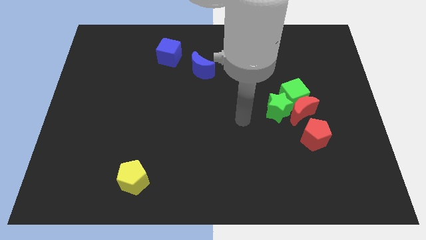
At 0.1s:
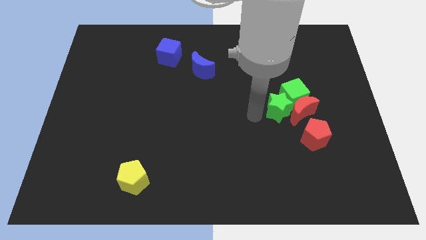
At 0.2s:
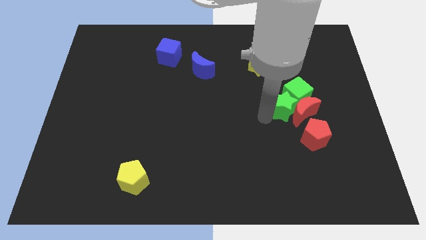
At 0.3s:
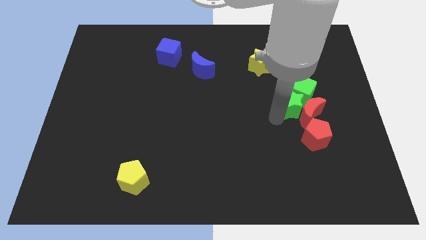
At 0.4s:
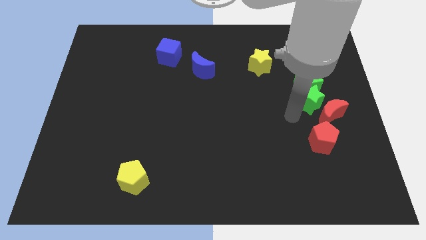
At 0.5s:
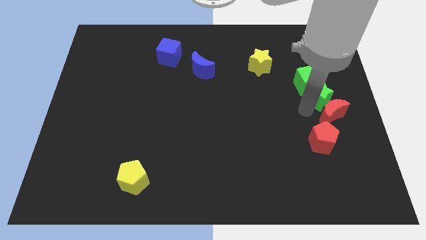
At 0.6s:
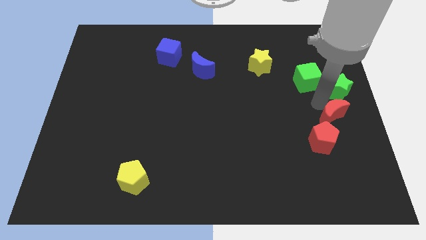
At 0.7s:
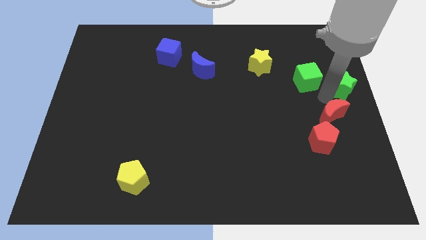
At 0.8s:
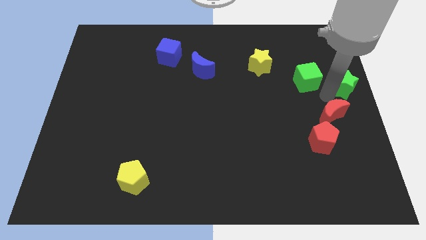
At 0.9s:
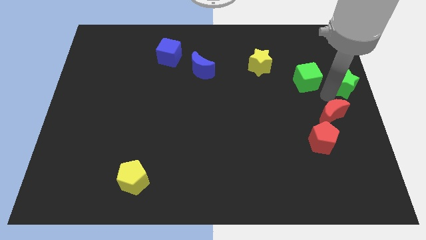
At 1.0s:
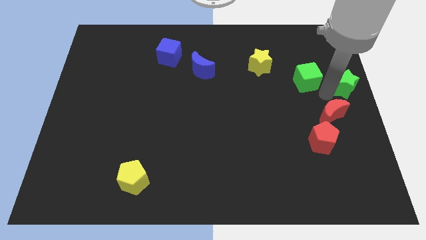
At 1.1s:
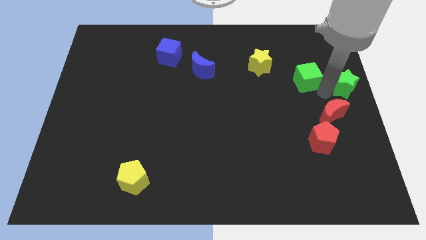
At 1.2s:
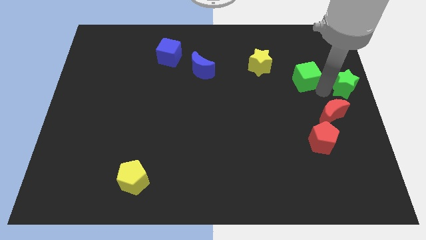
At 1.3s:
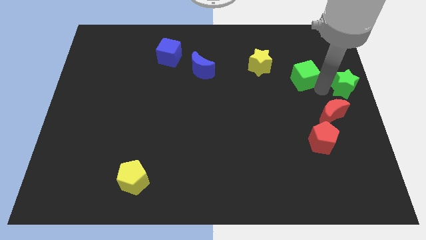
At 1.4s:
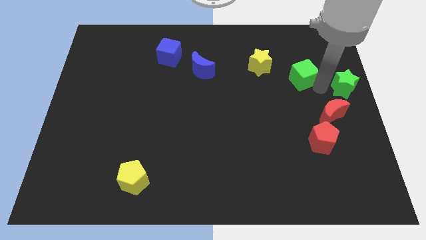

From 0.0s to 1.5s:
move the green cube away from the red moon and green star

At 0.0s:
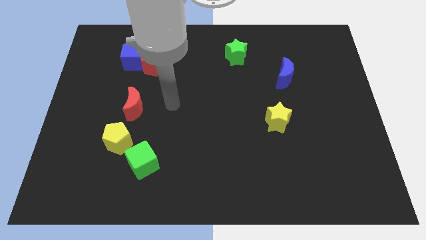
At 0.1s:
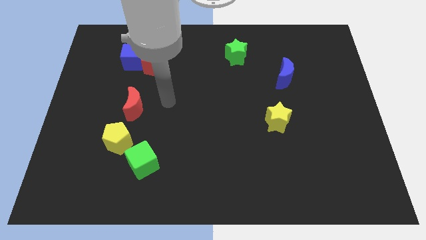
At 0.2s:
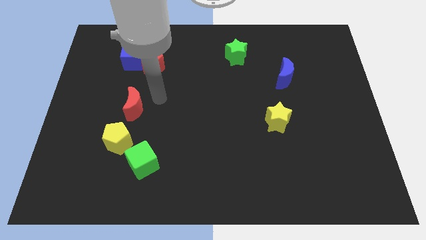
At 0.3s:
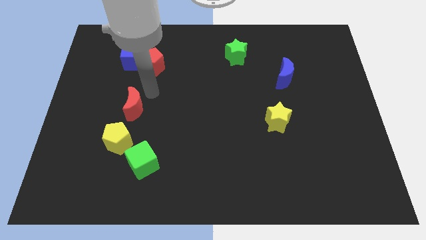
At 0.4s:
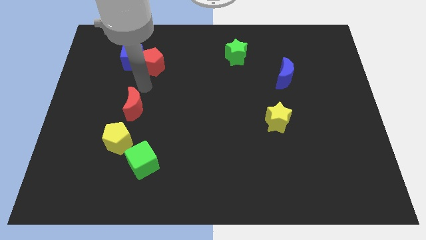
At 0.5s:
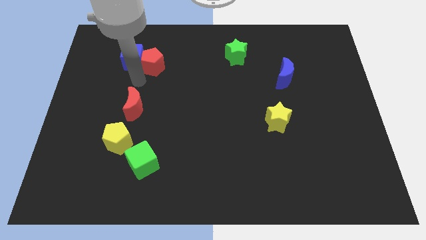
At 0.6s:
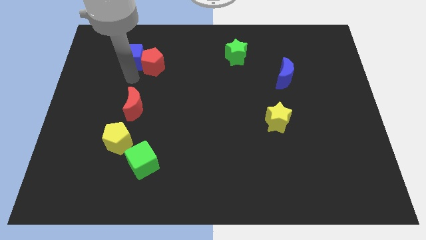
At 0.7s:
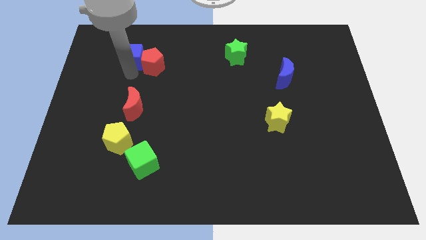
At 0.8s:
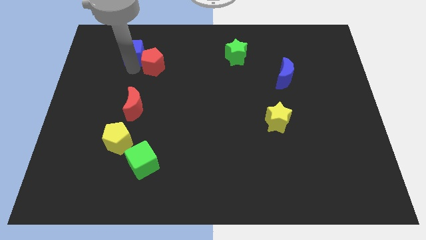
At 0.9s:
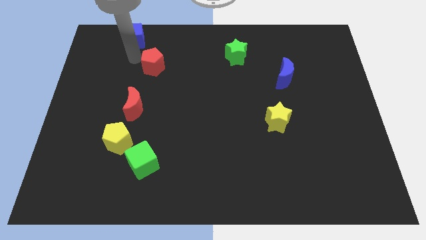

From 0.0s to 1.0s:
pull the red pentagon apart from the blue cube

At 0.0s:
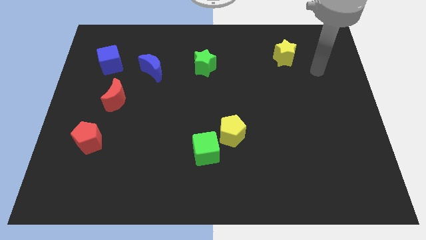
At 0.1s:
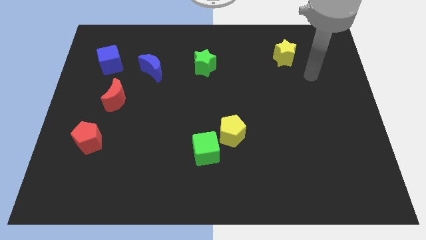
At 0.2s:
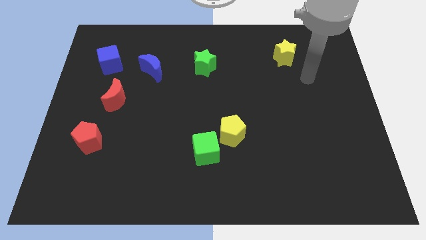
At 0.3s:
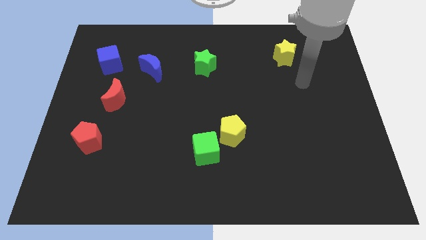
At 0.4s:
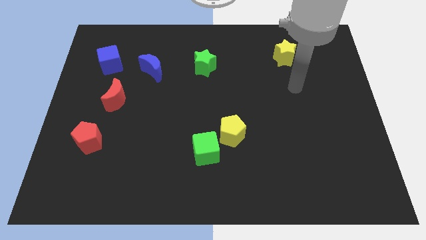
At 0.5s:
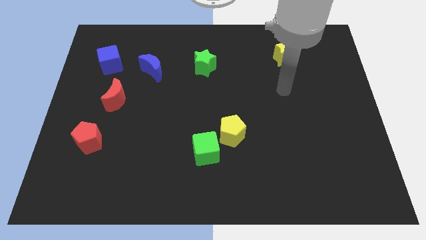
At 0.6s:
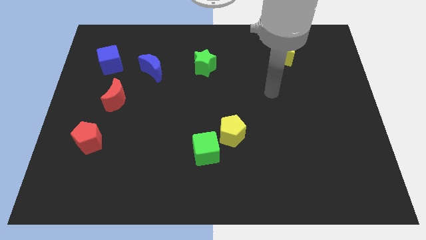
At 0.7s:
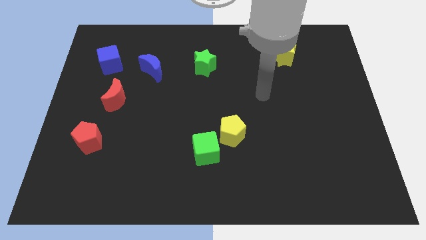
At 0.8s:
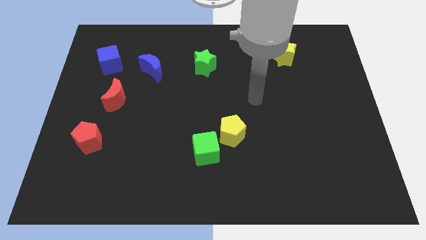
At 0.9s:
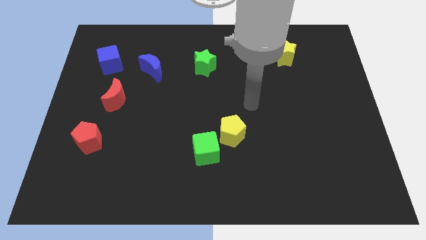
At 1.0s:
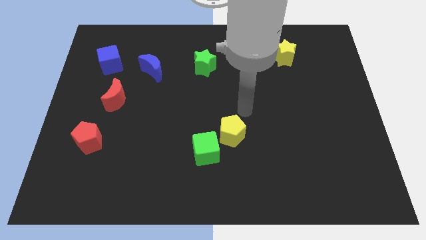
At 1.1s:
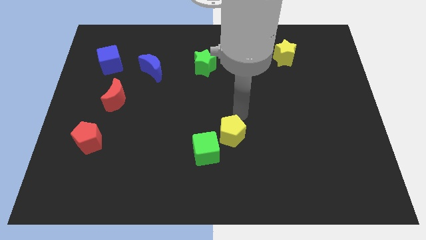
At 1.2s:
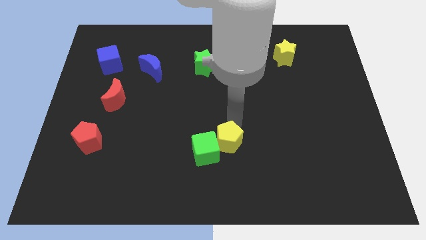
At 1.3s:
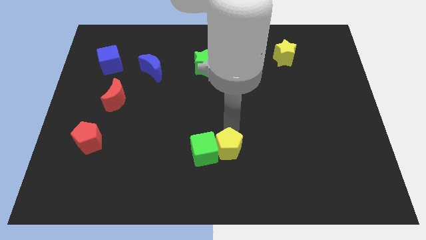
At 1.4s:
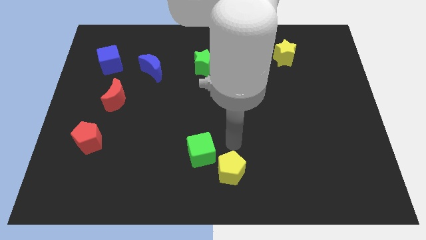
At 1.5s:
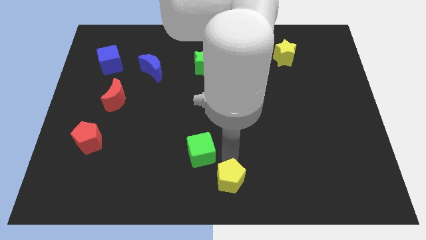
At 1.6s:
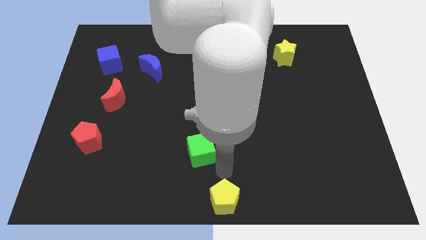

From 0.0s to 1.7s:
move the green cube away from the yellow pentagon

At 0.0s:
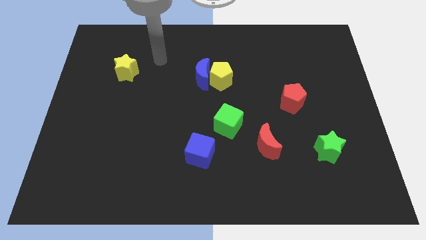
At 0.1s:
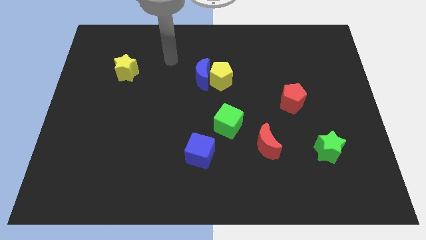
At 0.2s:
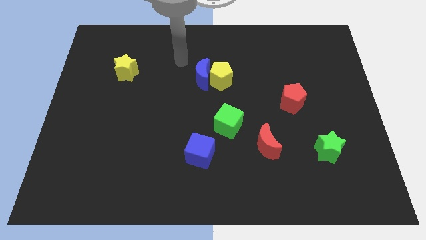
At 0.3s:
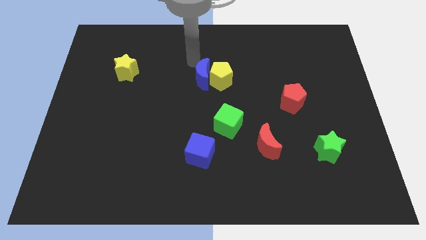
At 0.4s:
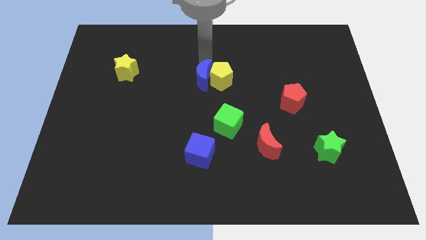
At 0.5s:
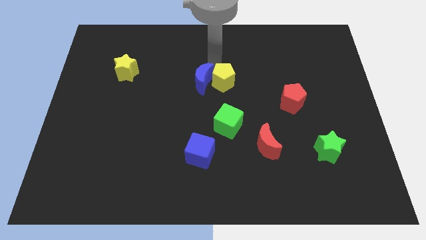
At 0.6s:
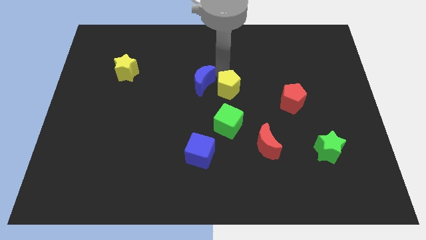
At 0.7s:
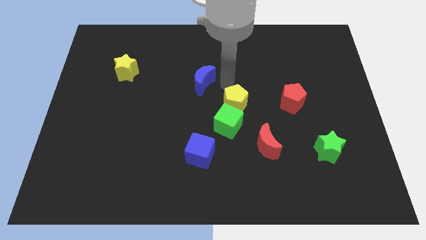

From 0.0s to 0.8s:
pull the blue moon apart from the yellow pentagon

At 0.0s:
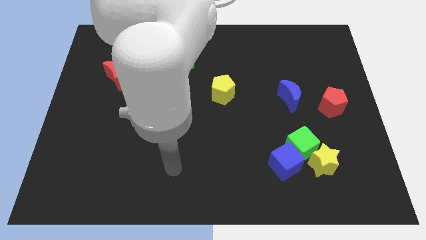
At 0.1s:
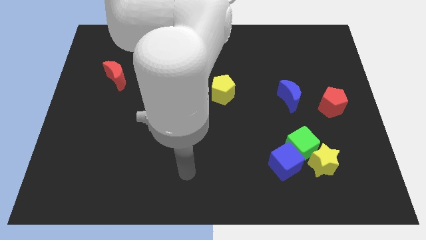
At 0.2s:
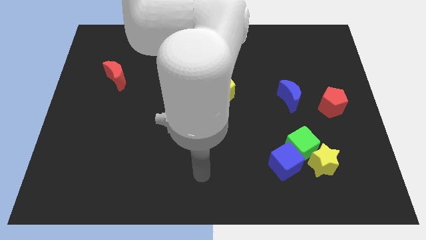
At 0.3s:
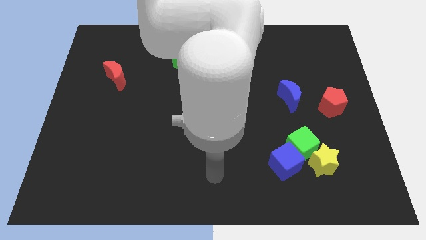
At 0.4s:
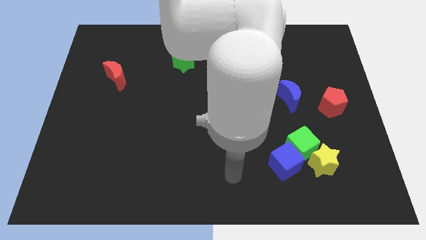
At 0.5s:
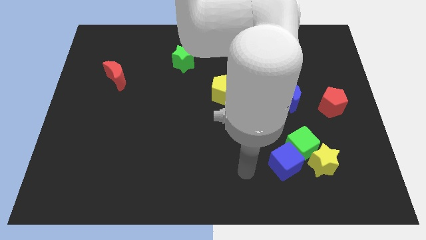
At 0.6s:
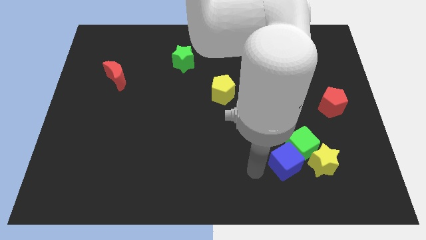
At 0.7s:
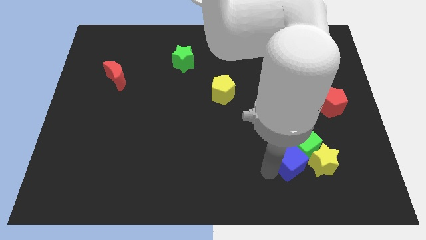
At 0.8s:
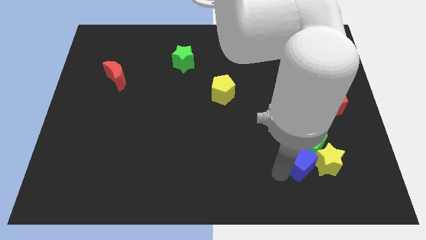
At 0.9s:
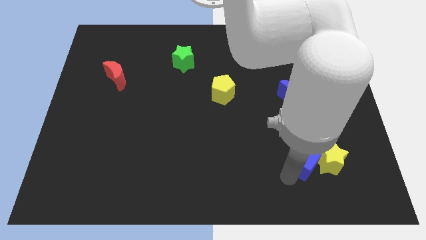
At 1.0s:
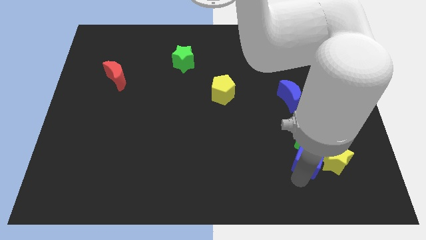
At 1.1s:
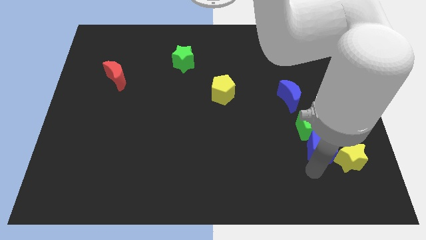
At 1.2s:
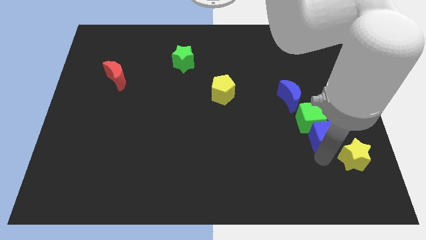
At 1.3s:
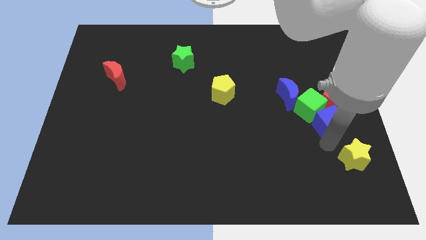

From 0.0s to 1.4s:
pull the green cube apart from the blue cube and yellow star

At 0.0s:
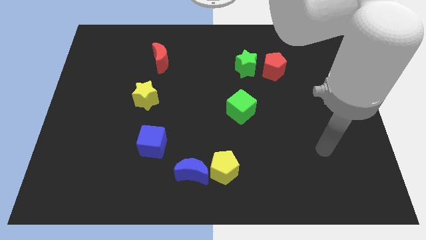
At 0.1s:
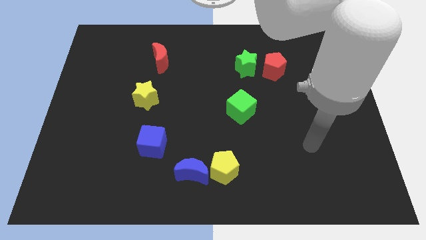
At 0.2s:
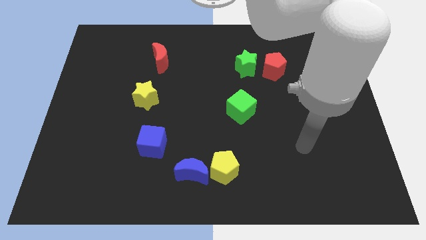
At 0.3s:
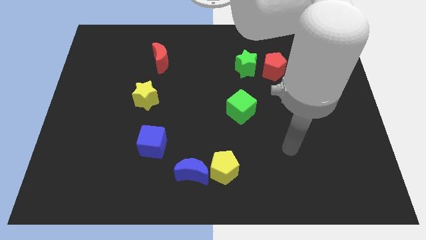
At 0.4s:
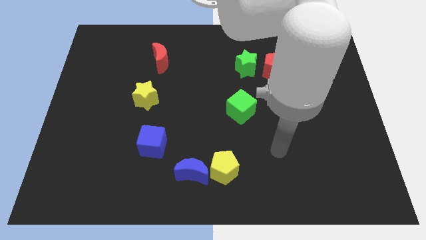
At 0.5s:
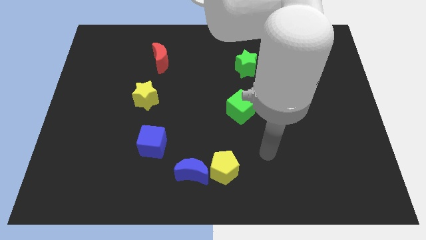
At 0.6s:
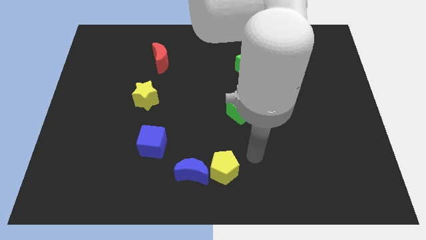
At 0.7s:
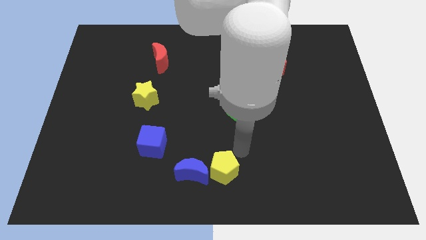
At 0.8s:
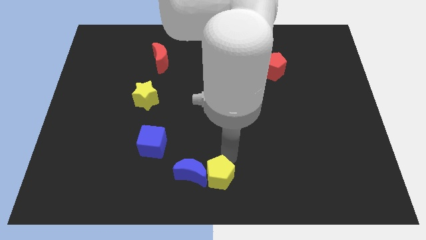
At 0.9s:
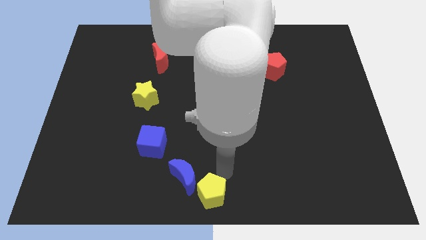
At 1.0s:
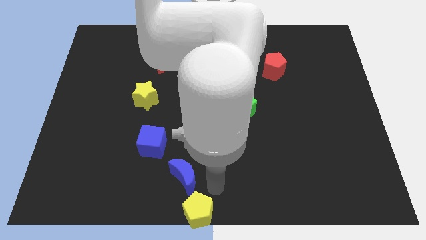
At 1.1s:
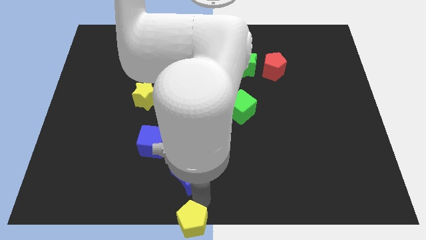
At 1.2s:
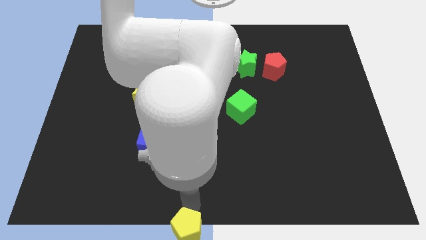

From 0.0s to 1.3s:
move the blue moon away from the yellow pentagon

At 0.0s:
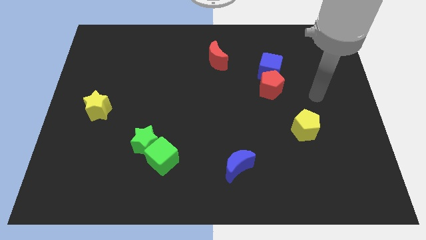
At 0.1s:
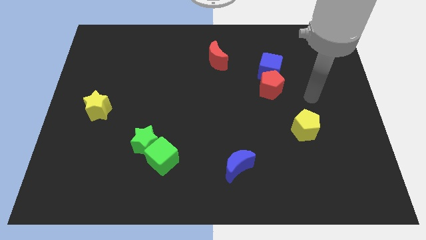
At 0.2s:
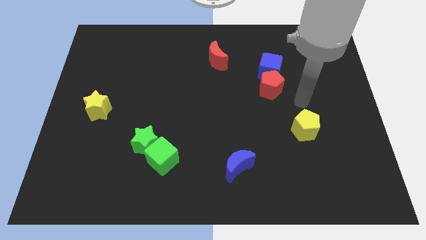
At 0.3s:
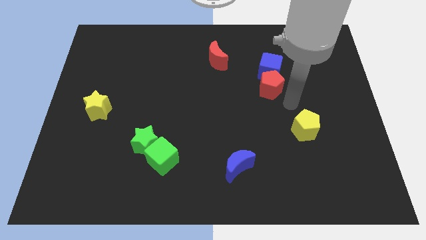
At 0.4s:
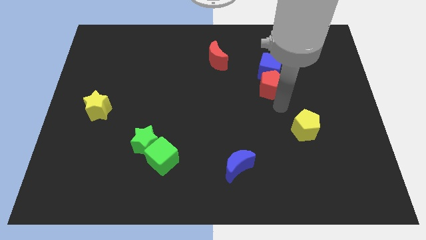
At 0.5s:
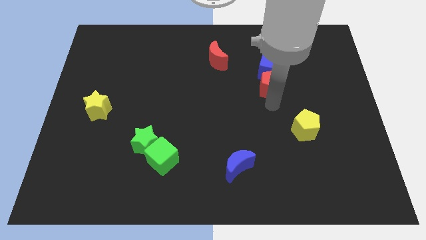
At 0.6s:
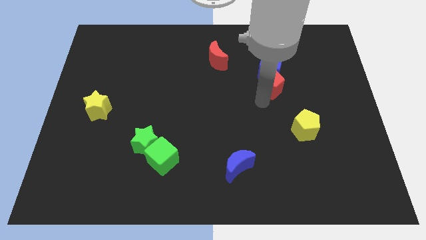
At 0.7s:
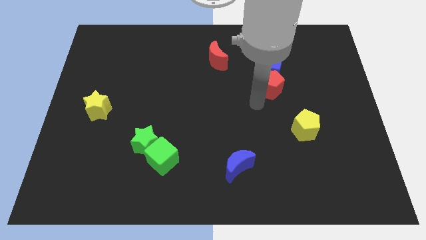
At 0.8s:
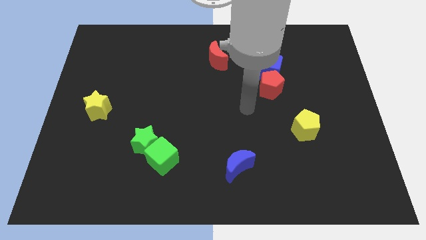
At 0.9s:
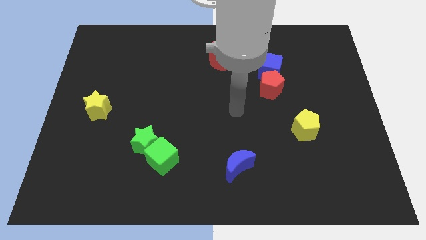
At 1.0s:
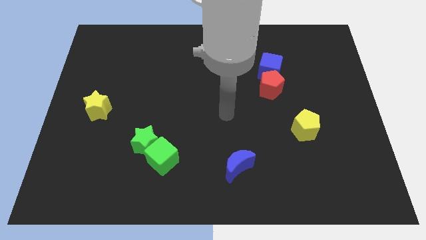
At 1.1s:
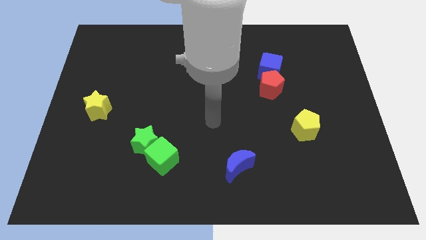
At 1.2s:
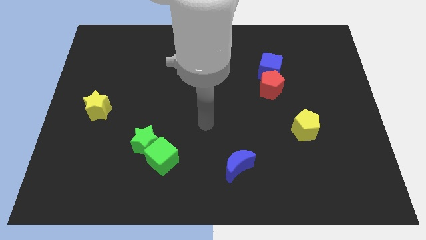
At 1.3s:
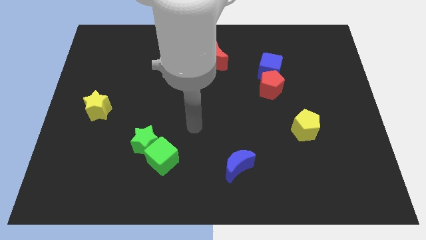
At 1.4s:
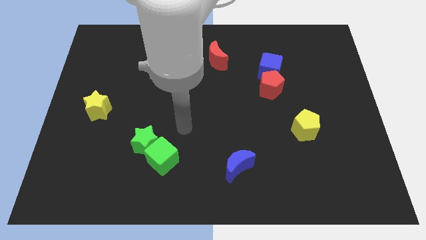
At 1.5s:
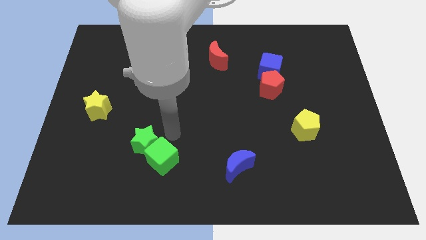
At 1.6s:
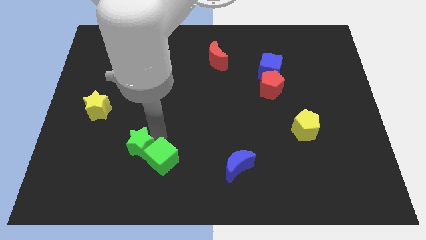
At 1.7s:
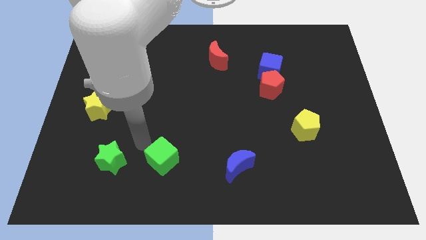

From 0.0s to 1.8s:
separate the green cube from the green star

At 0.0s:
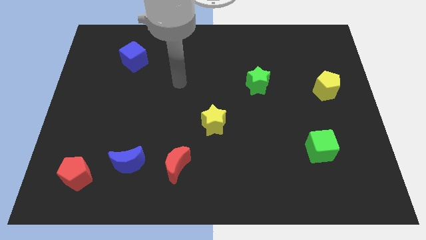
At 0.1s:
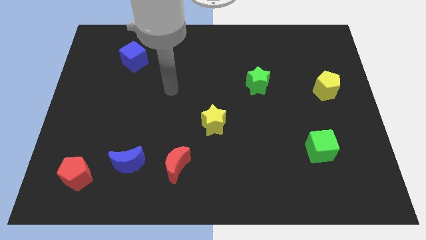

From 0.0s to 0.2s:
separate the red moon from the blue moon
